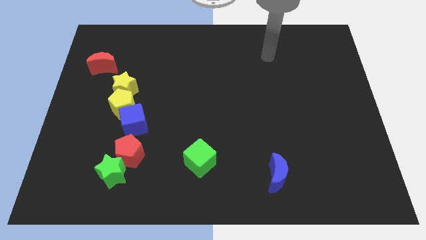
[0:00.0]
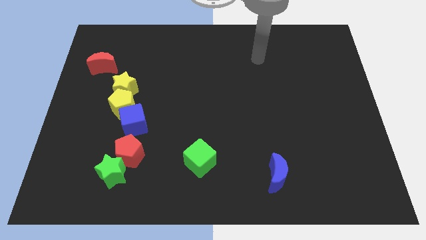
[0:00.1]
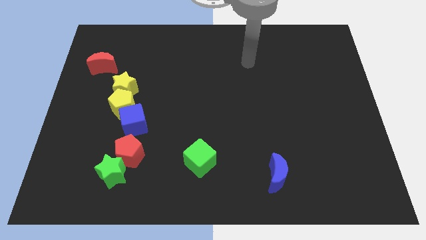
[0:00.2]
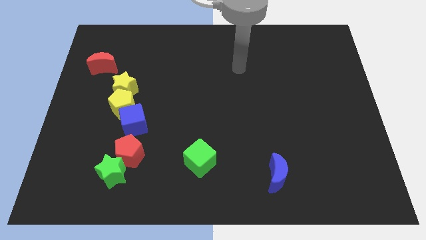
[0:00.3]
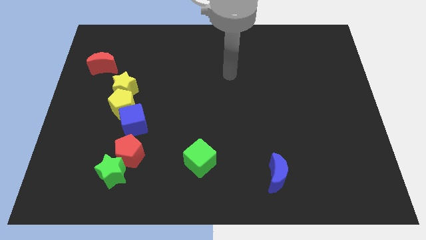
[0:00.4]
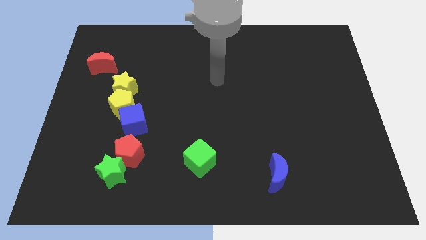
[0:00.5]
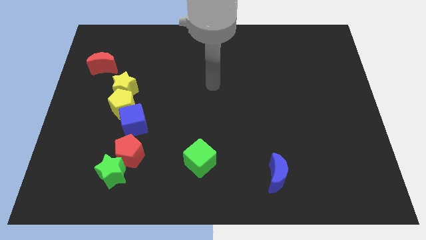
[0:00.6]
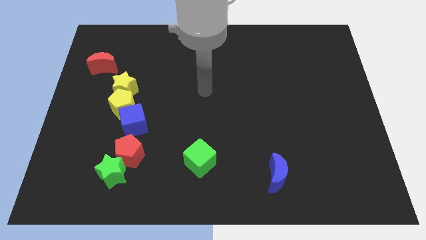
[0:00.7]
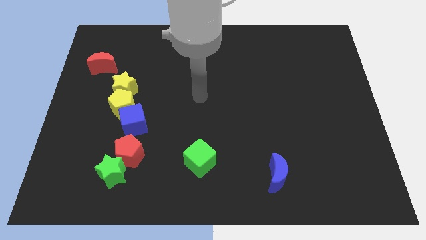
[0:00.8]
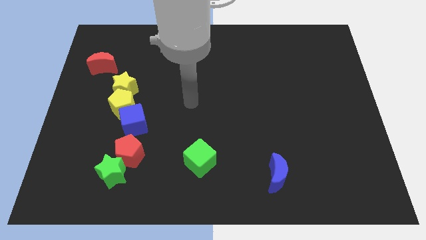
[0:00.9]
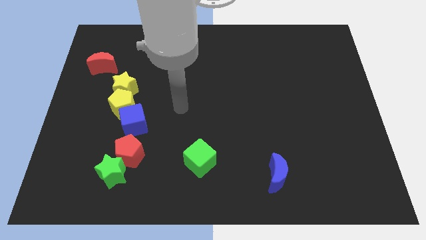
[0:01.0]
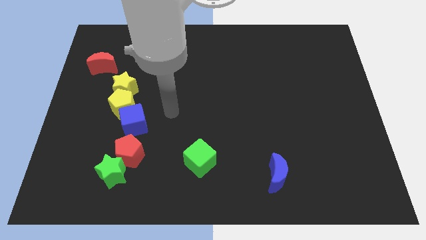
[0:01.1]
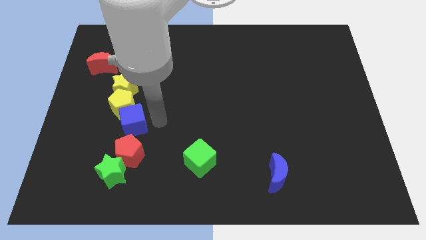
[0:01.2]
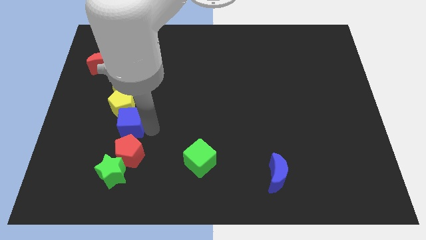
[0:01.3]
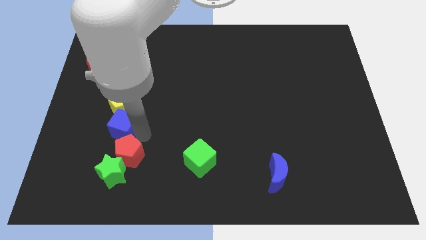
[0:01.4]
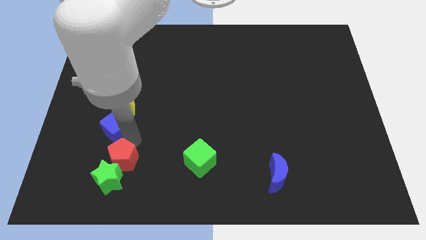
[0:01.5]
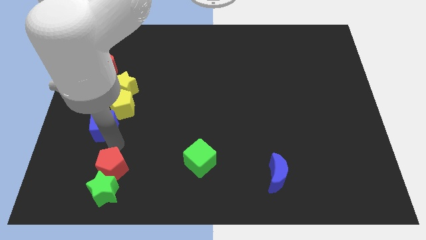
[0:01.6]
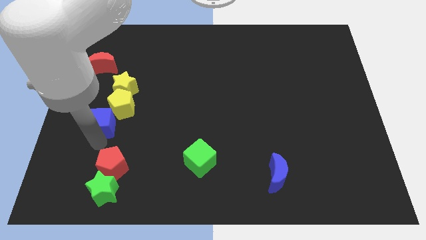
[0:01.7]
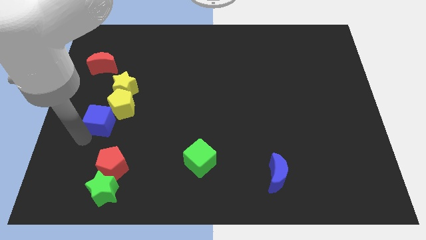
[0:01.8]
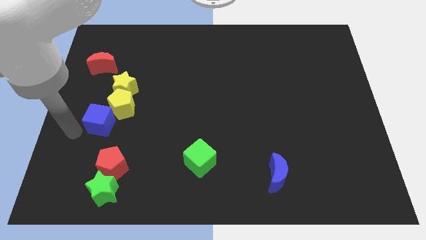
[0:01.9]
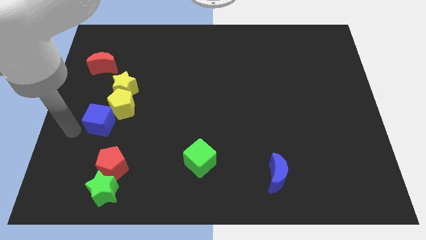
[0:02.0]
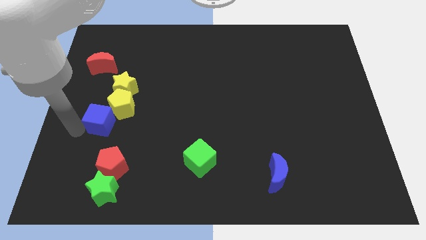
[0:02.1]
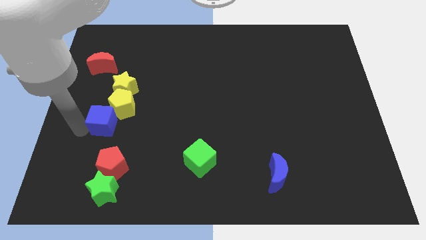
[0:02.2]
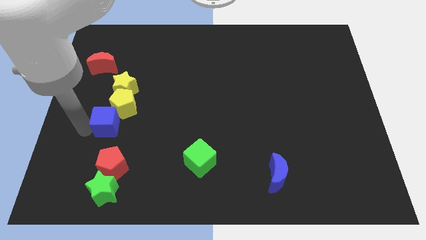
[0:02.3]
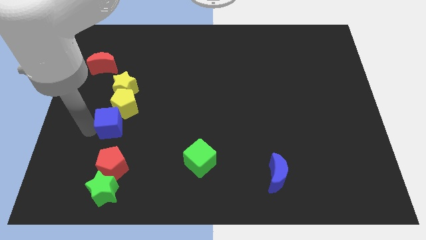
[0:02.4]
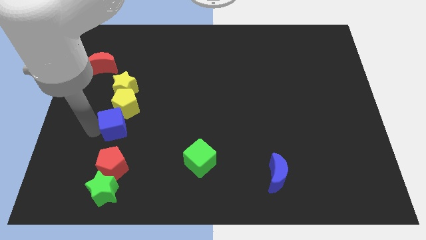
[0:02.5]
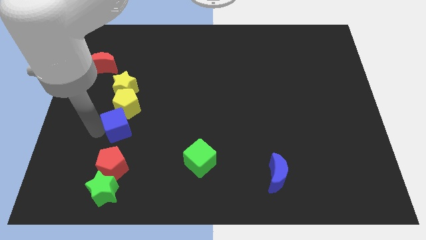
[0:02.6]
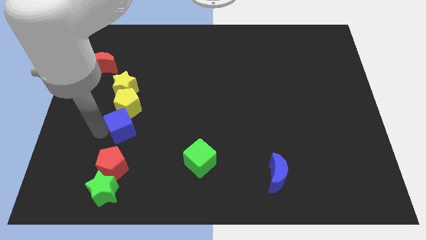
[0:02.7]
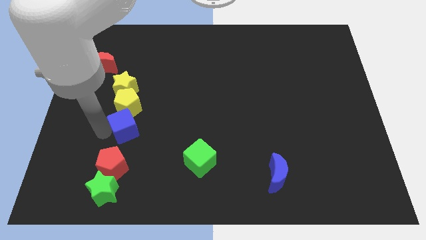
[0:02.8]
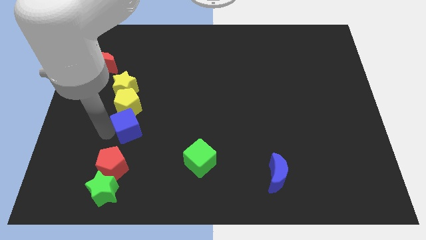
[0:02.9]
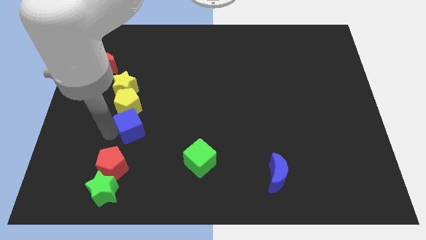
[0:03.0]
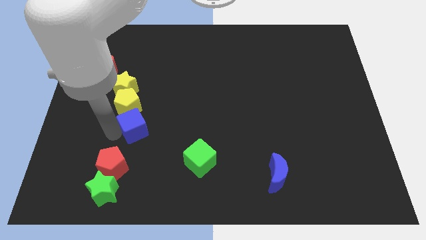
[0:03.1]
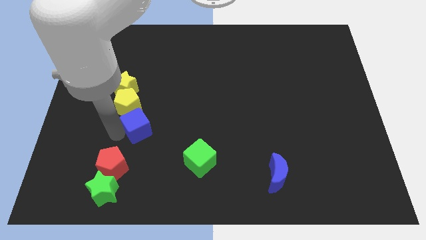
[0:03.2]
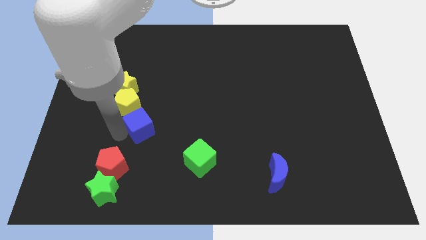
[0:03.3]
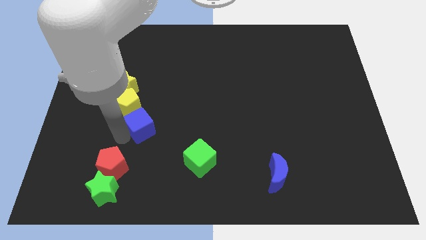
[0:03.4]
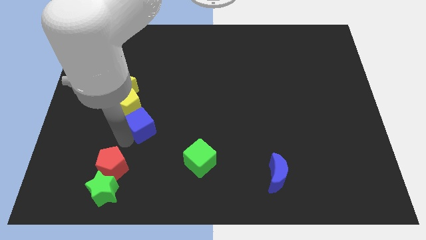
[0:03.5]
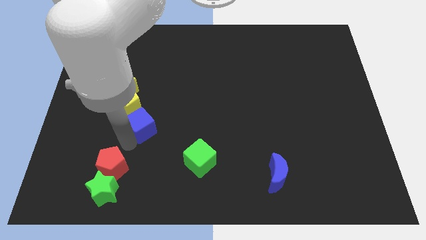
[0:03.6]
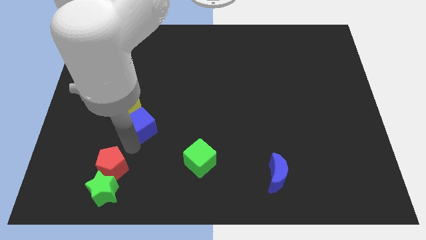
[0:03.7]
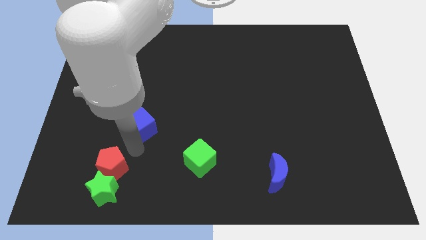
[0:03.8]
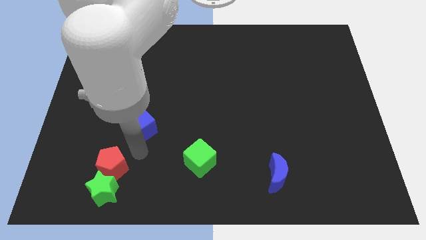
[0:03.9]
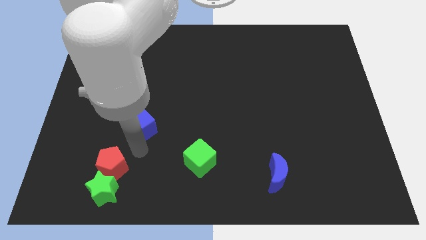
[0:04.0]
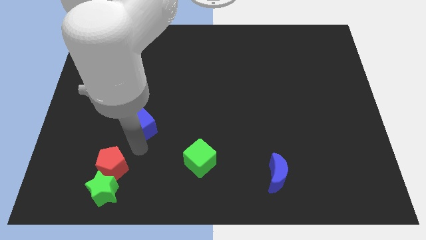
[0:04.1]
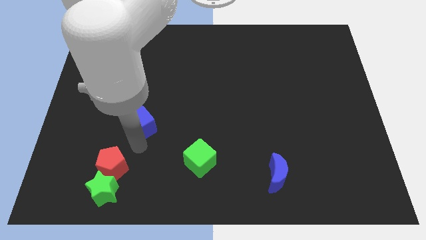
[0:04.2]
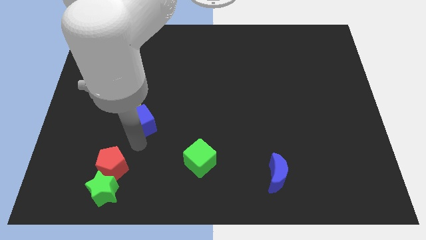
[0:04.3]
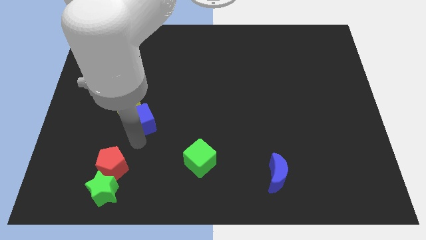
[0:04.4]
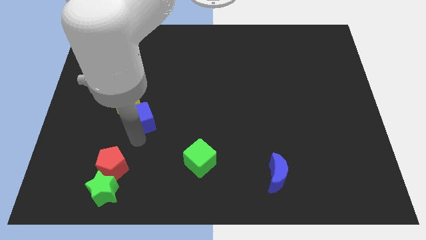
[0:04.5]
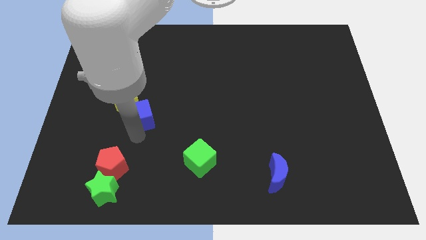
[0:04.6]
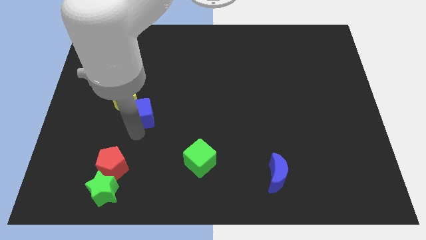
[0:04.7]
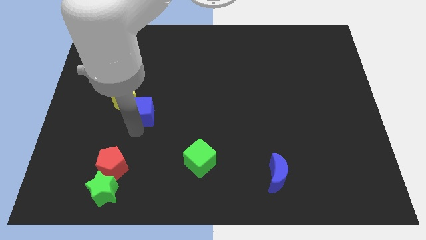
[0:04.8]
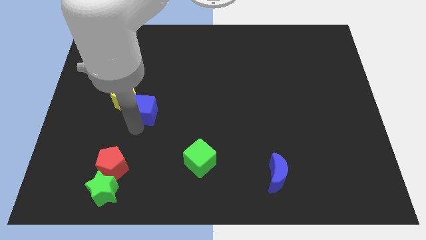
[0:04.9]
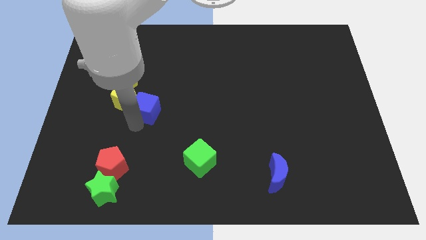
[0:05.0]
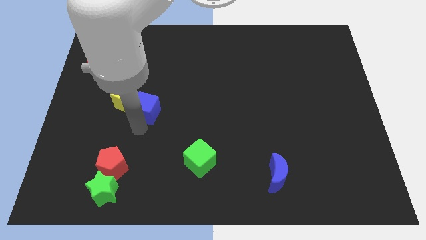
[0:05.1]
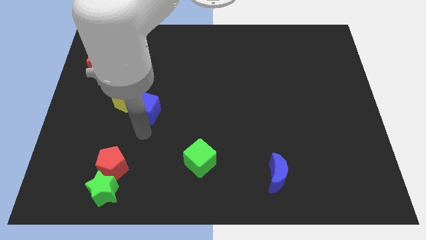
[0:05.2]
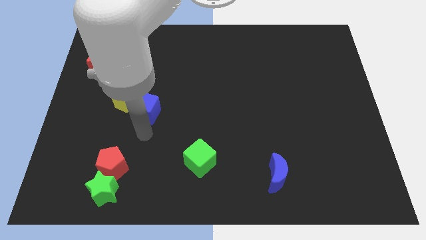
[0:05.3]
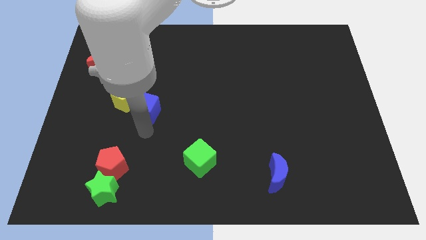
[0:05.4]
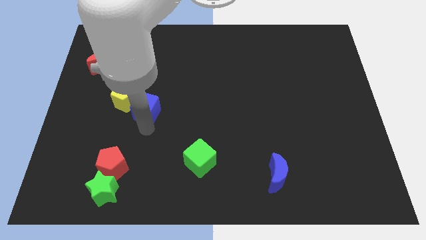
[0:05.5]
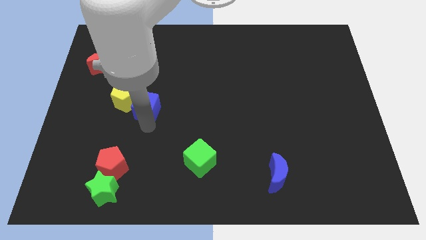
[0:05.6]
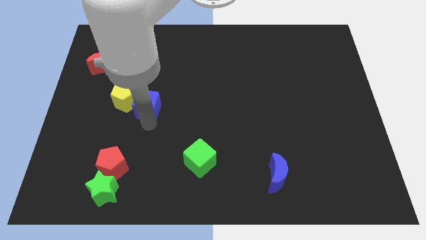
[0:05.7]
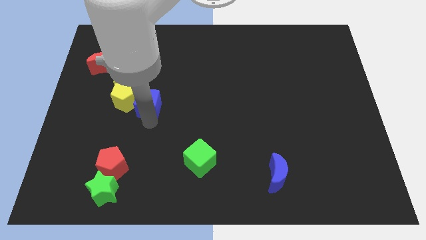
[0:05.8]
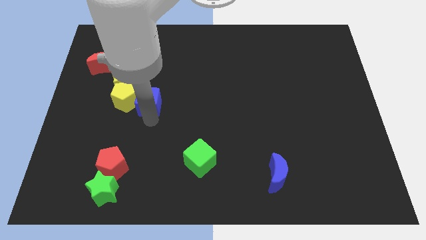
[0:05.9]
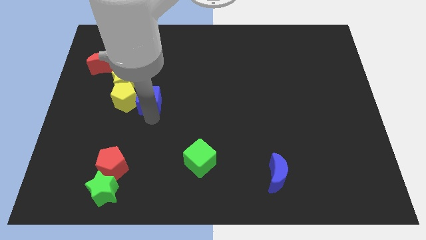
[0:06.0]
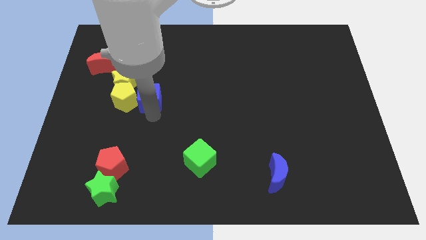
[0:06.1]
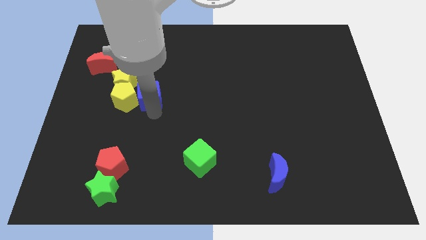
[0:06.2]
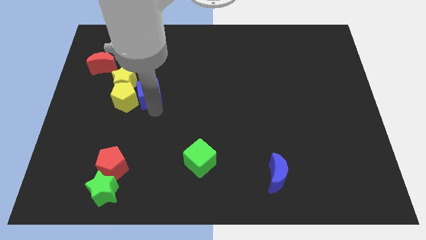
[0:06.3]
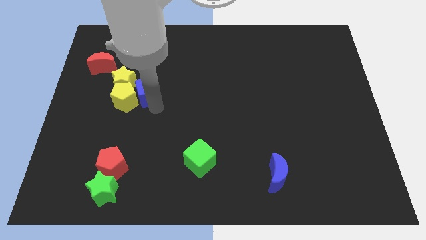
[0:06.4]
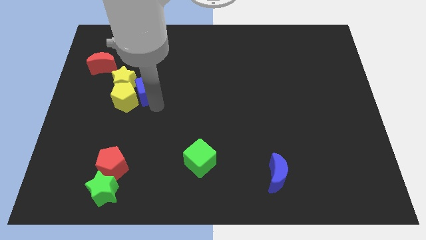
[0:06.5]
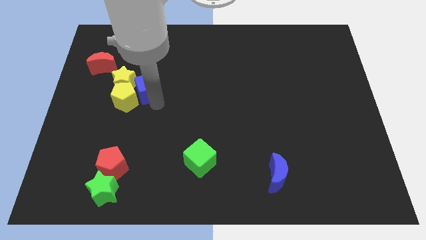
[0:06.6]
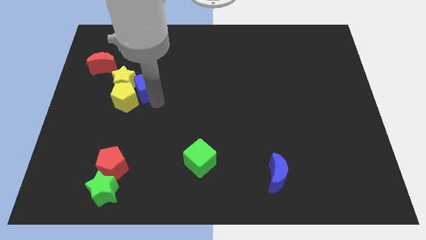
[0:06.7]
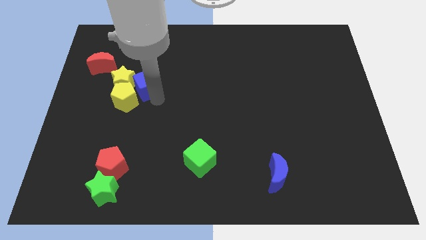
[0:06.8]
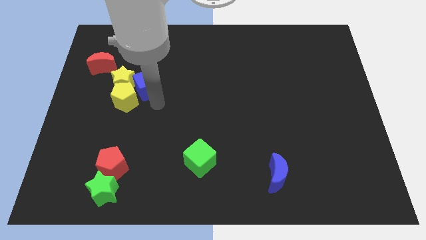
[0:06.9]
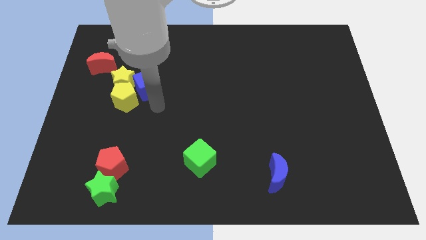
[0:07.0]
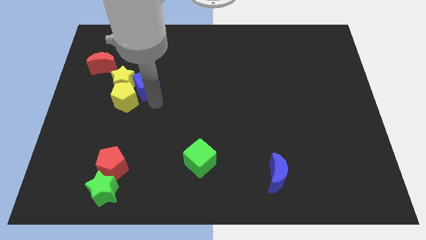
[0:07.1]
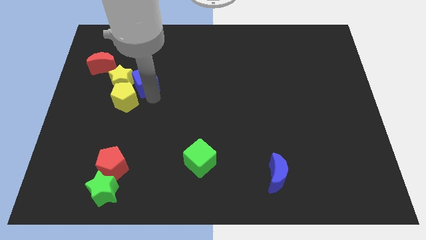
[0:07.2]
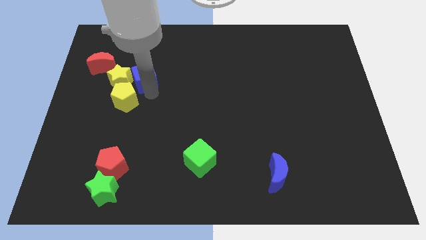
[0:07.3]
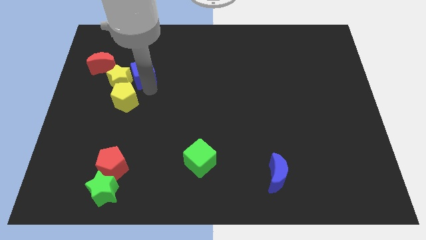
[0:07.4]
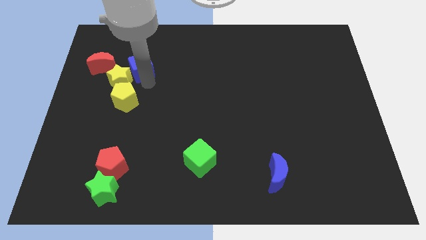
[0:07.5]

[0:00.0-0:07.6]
push the blue cube above the yellow star
